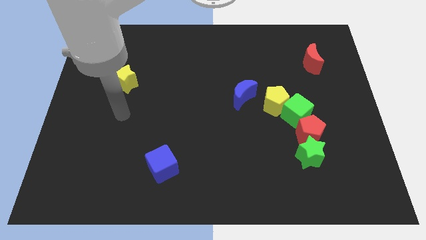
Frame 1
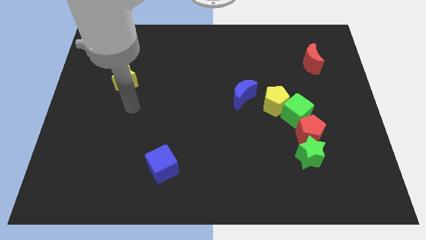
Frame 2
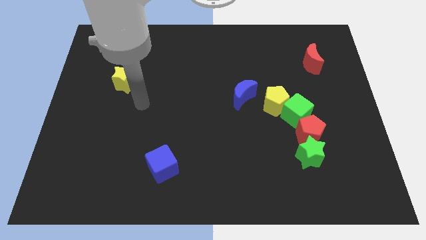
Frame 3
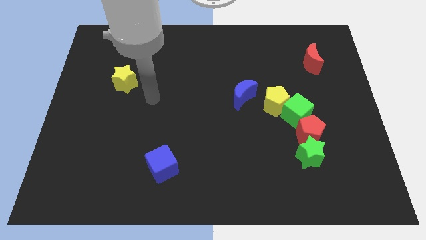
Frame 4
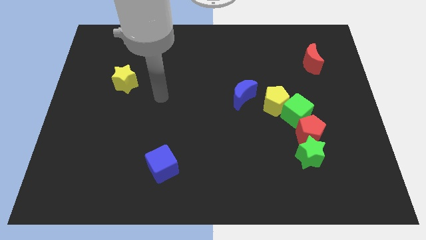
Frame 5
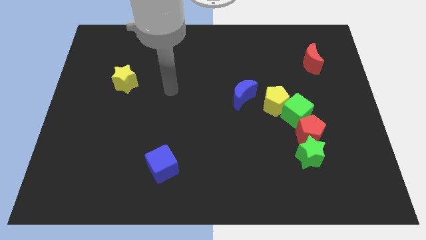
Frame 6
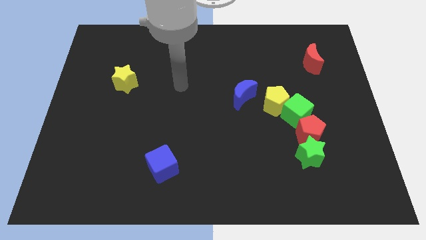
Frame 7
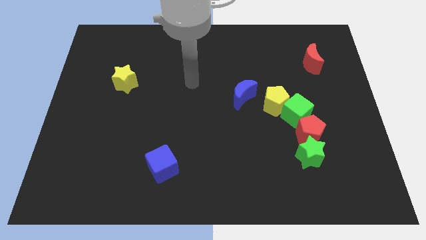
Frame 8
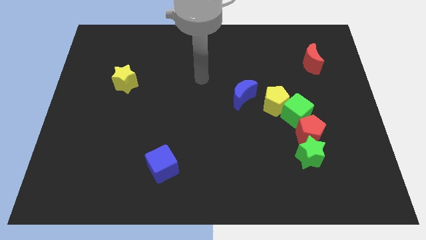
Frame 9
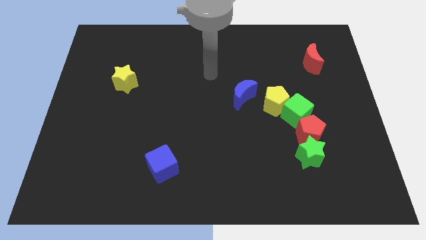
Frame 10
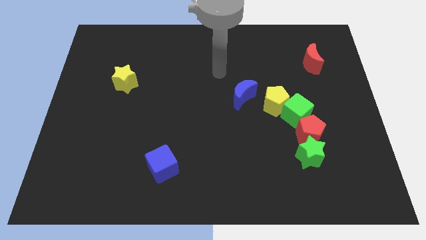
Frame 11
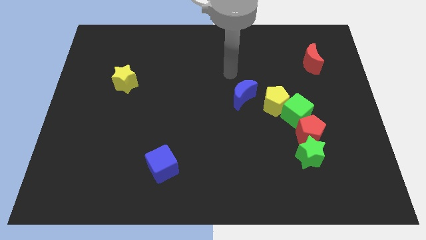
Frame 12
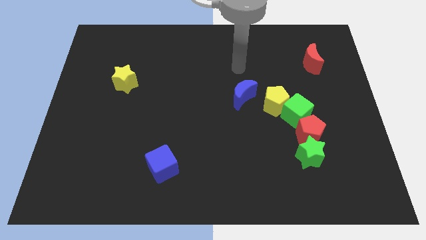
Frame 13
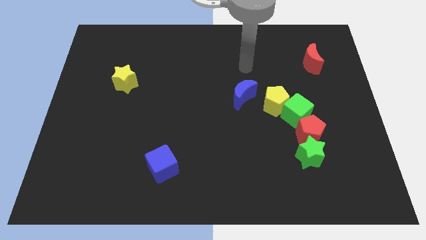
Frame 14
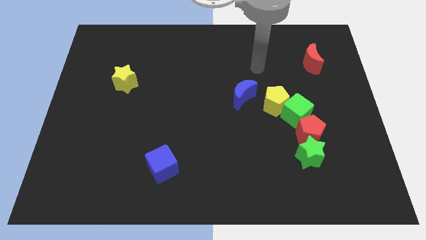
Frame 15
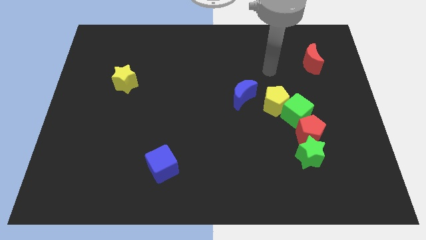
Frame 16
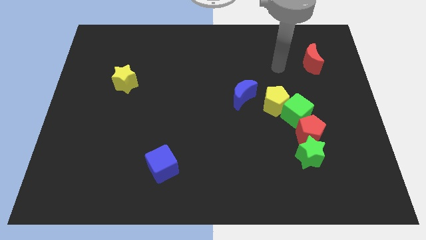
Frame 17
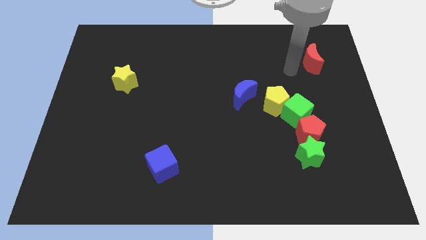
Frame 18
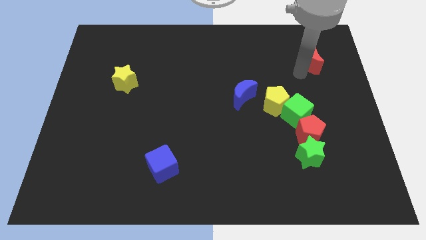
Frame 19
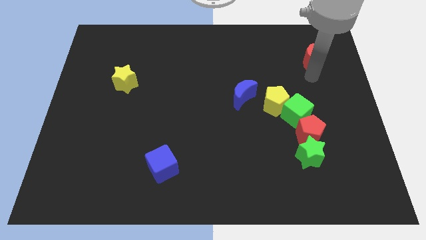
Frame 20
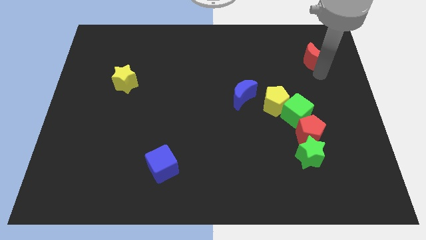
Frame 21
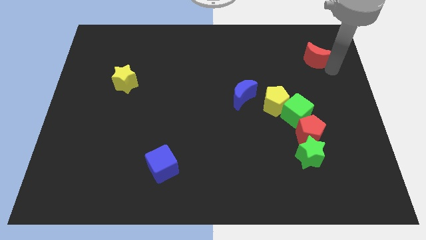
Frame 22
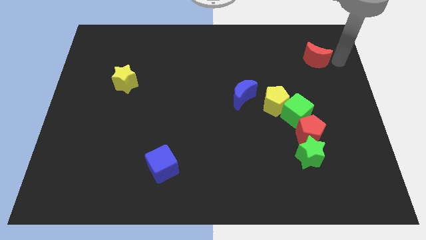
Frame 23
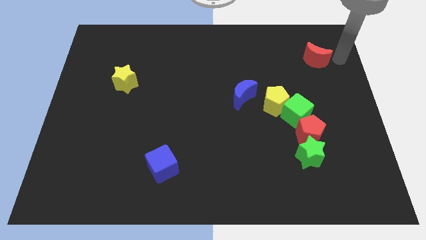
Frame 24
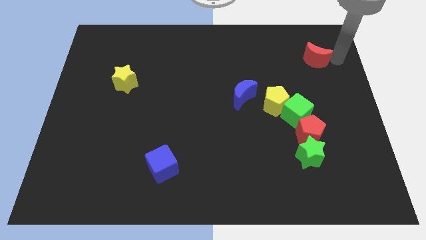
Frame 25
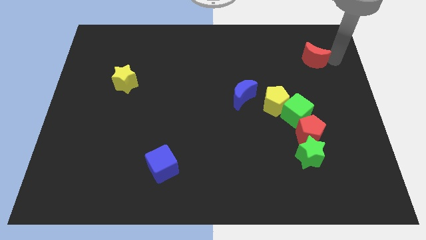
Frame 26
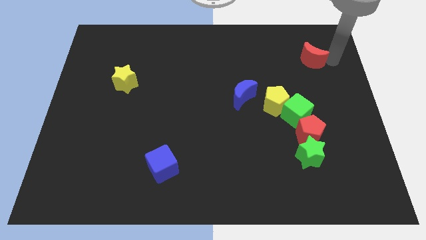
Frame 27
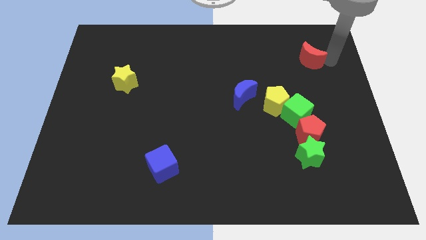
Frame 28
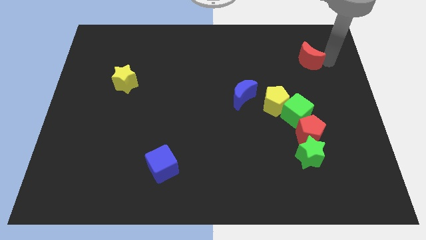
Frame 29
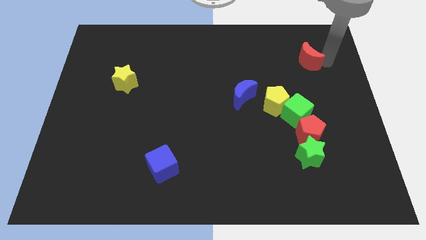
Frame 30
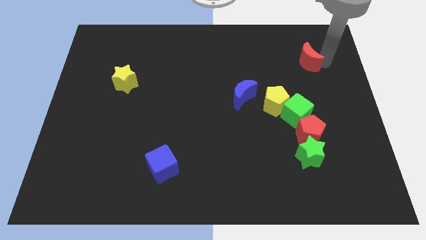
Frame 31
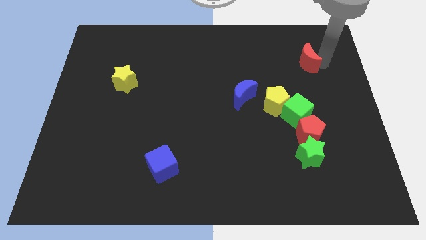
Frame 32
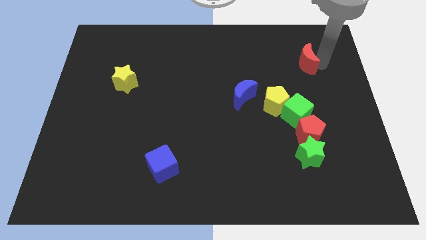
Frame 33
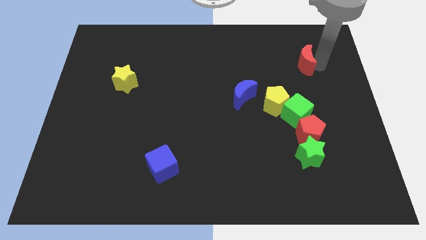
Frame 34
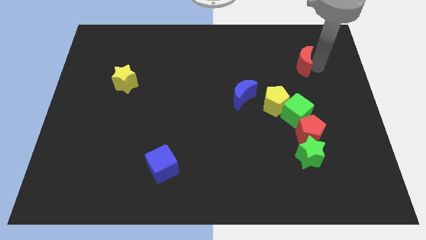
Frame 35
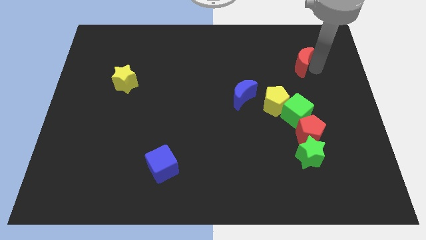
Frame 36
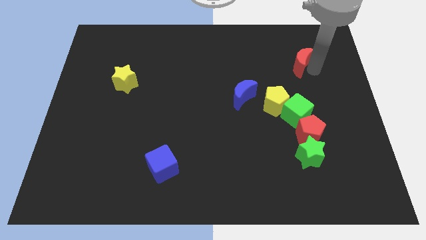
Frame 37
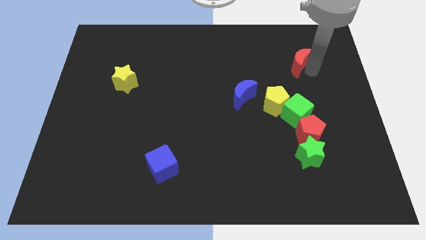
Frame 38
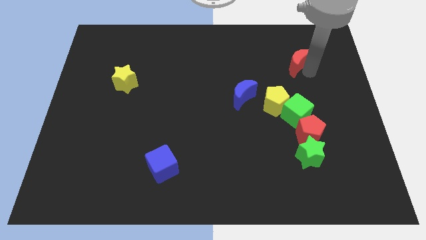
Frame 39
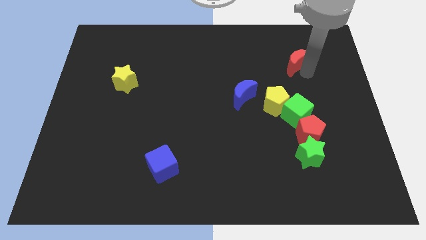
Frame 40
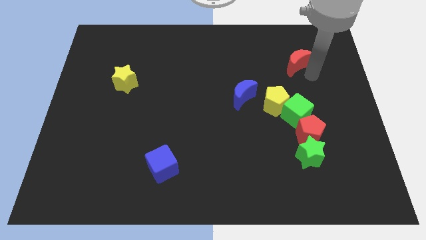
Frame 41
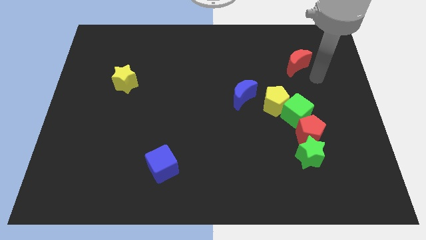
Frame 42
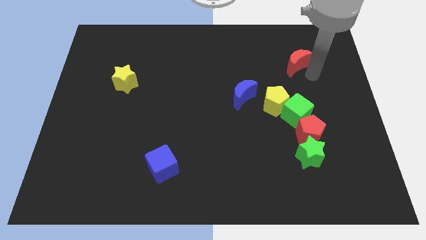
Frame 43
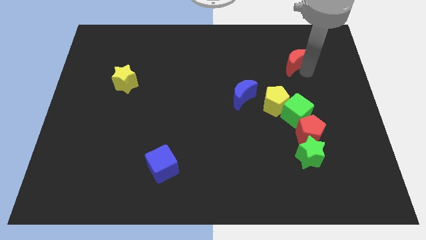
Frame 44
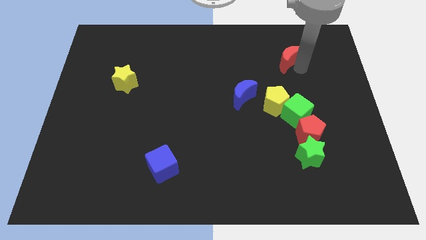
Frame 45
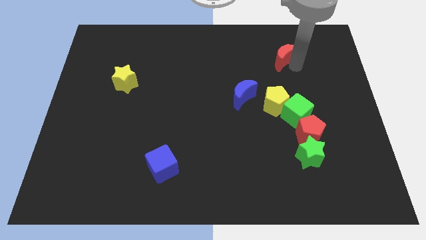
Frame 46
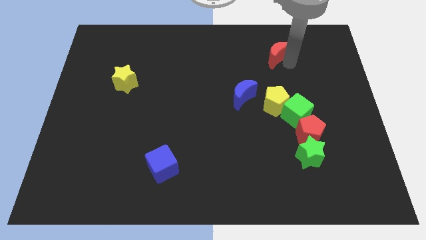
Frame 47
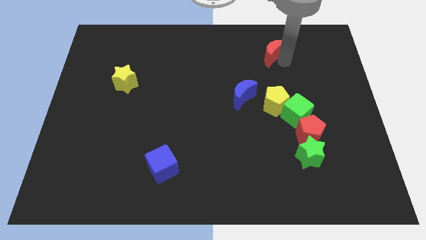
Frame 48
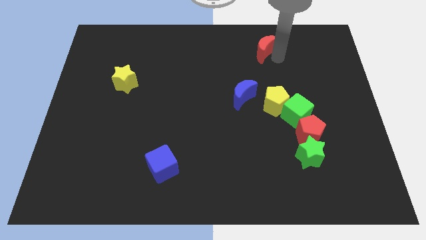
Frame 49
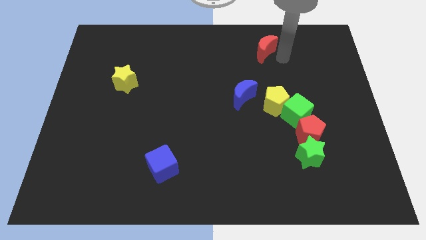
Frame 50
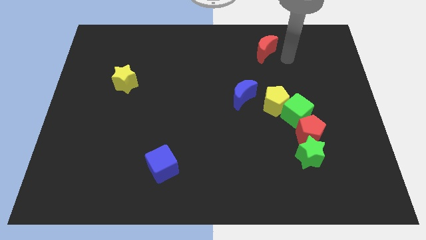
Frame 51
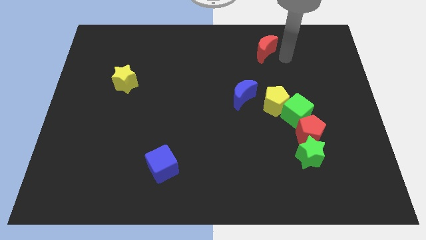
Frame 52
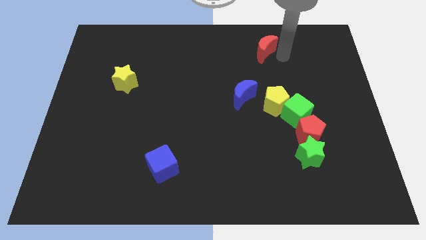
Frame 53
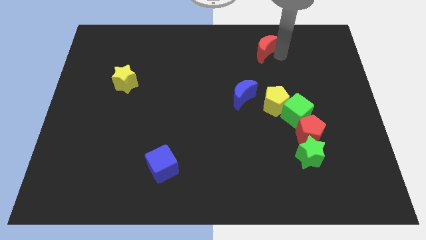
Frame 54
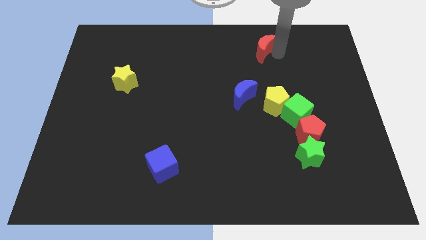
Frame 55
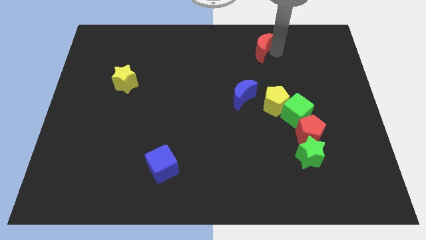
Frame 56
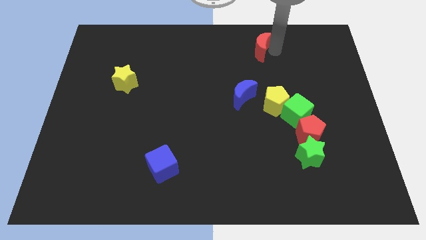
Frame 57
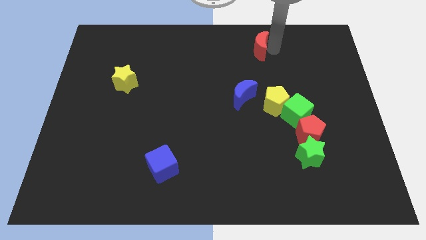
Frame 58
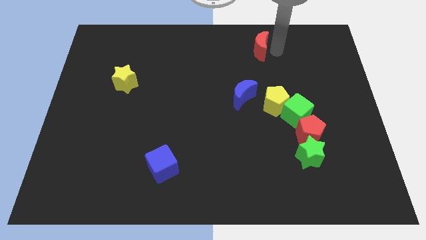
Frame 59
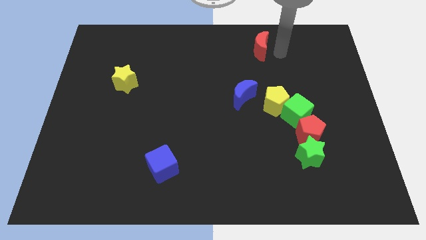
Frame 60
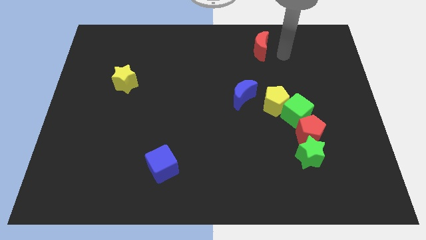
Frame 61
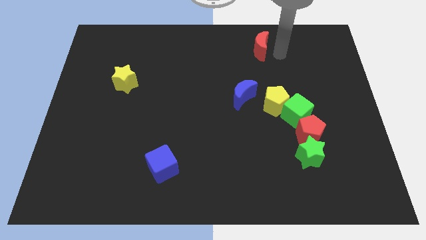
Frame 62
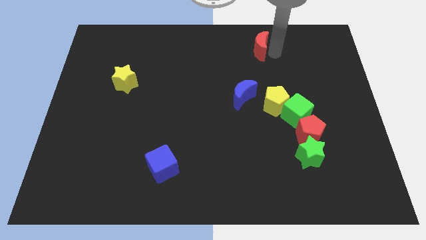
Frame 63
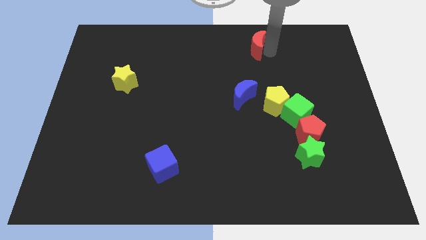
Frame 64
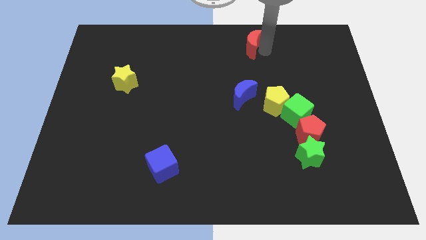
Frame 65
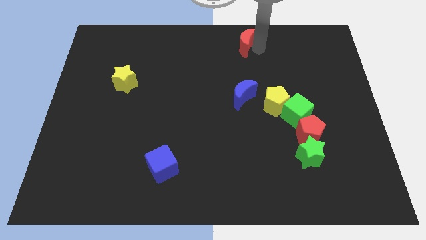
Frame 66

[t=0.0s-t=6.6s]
move the red moon to the towards your base
